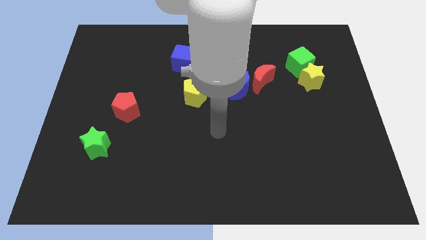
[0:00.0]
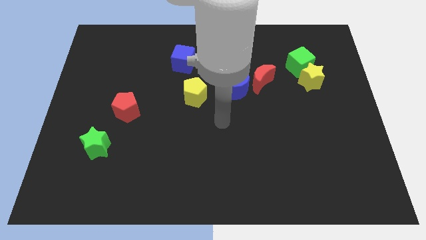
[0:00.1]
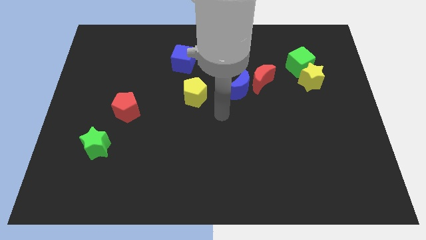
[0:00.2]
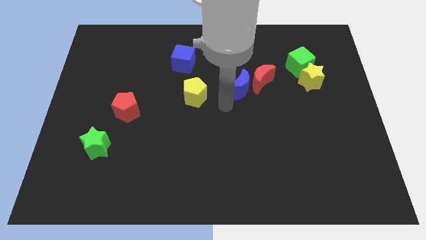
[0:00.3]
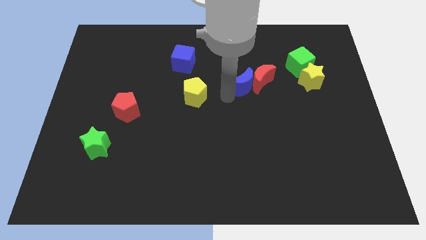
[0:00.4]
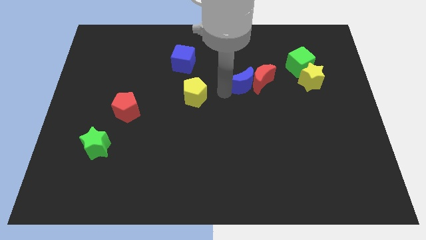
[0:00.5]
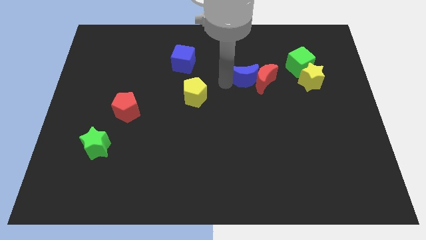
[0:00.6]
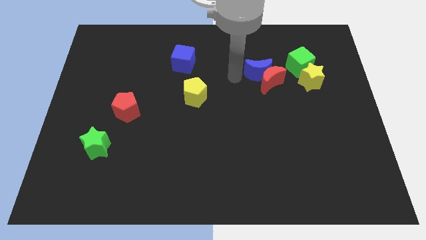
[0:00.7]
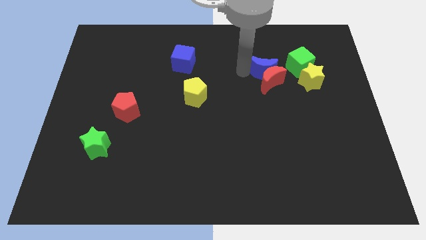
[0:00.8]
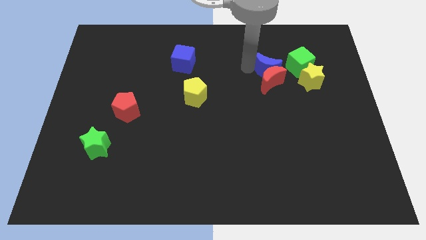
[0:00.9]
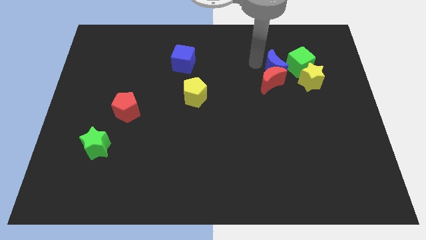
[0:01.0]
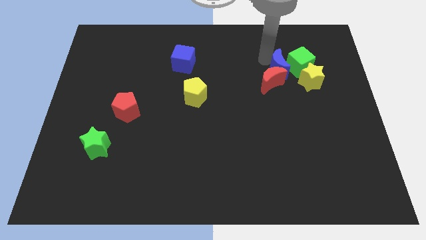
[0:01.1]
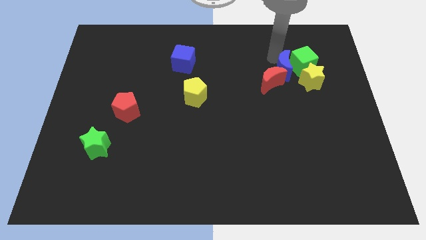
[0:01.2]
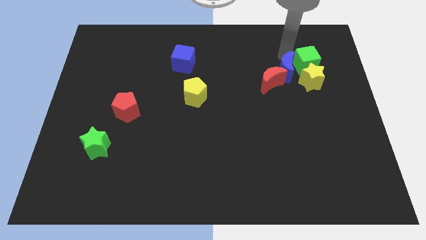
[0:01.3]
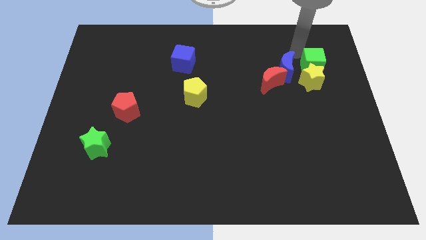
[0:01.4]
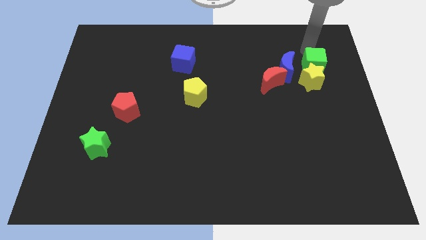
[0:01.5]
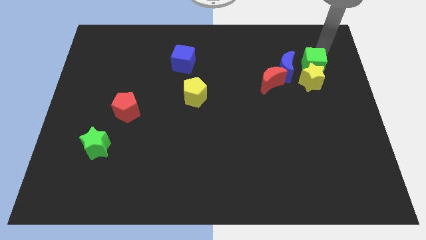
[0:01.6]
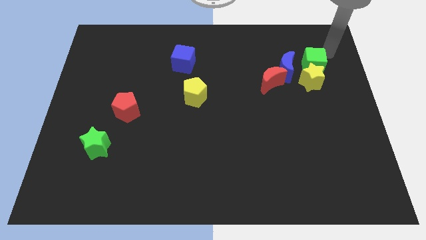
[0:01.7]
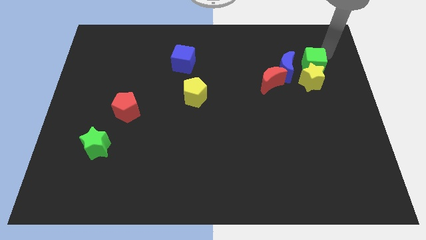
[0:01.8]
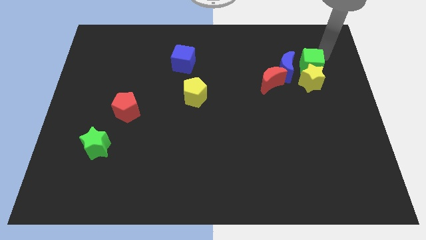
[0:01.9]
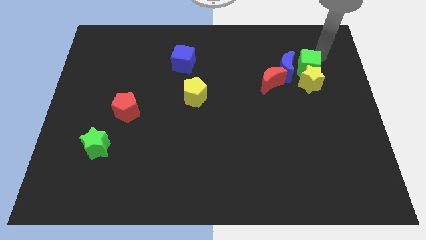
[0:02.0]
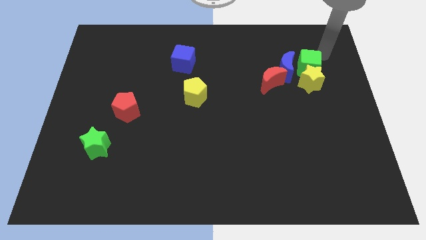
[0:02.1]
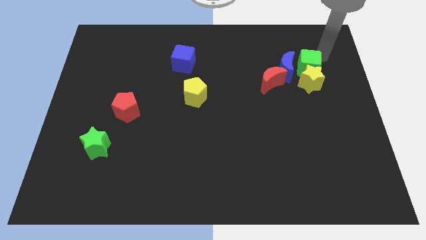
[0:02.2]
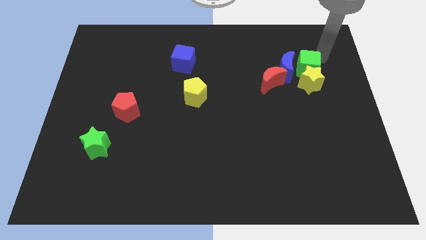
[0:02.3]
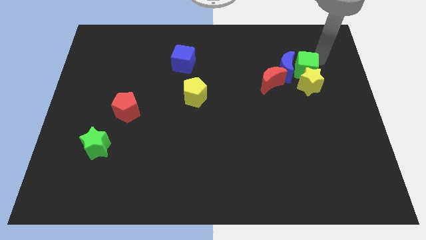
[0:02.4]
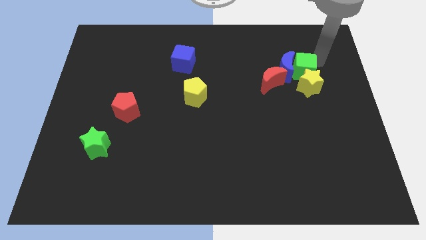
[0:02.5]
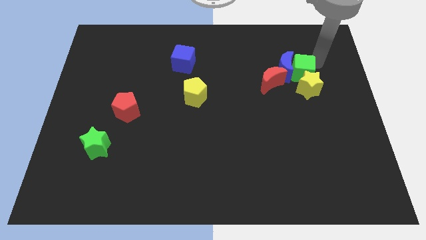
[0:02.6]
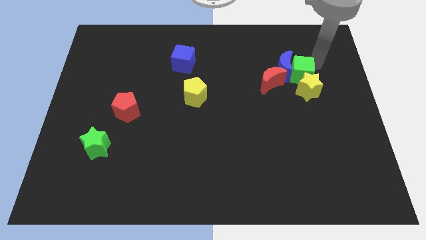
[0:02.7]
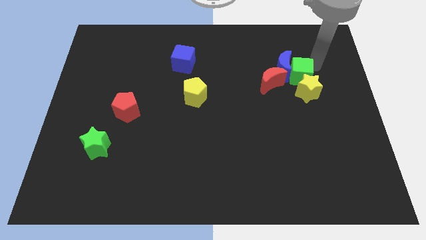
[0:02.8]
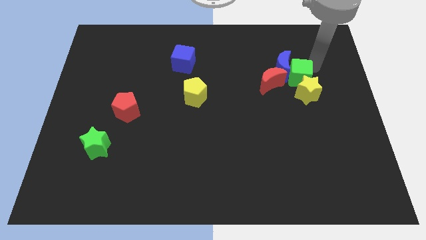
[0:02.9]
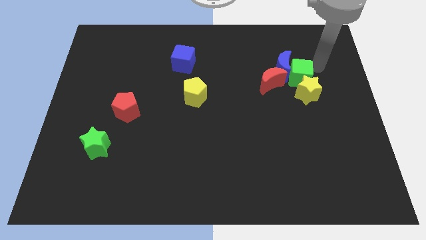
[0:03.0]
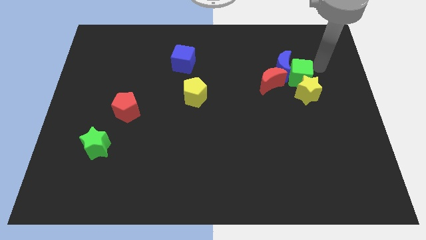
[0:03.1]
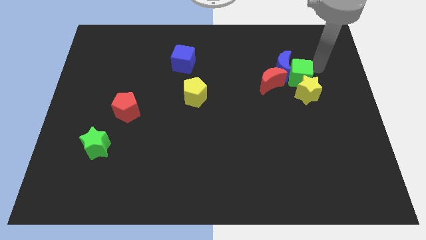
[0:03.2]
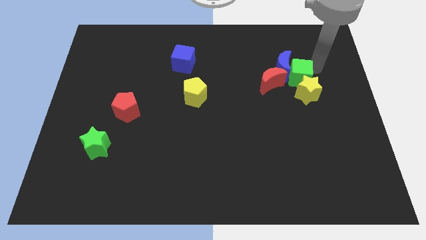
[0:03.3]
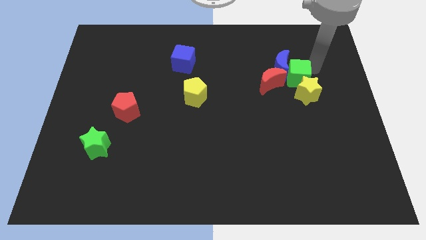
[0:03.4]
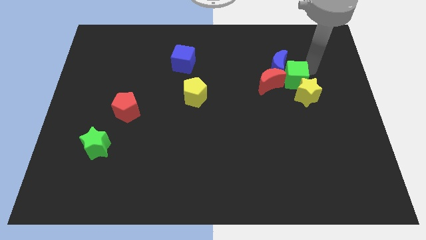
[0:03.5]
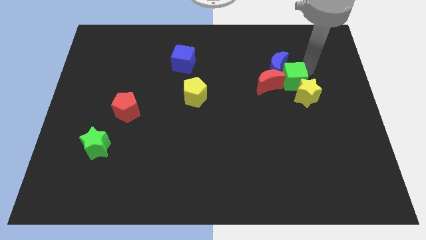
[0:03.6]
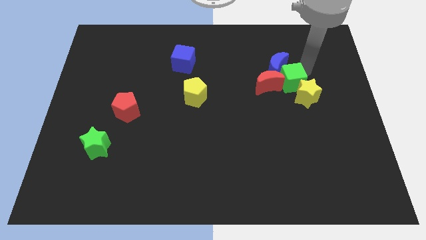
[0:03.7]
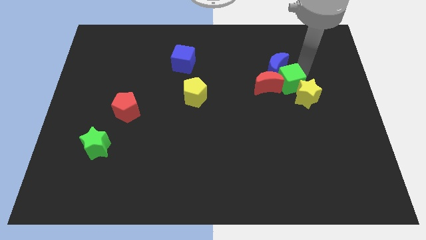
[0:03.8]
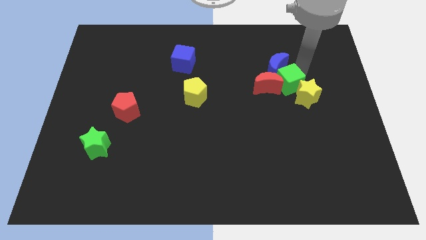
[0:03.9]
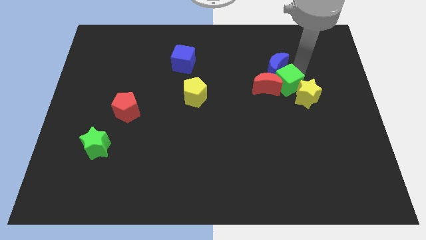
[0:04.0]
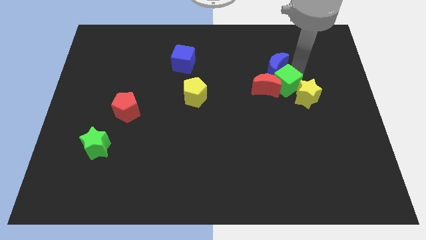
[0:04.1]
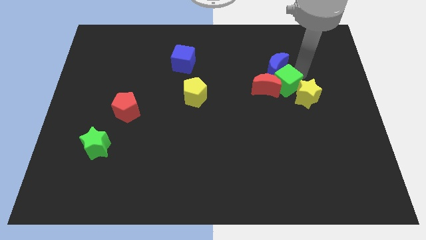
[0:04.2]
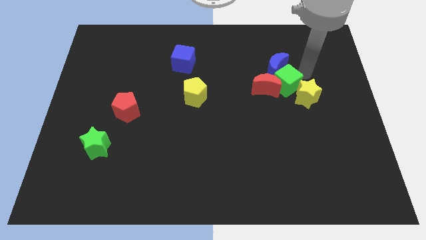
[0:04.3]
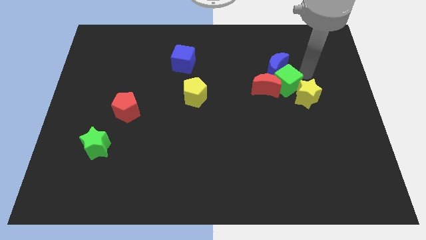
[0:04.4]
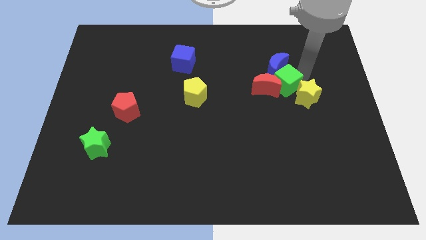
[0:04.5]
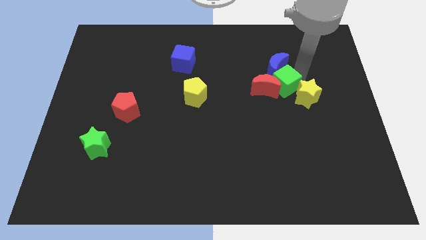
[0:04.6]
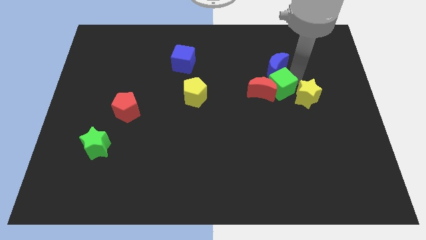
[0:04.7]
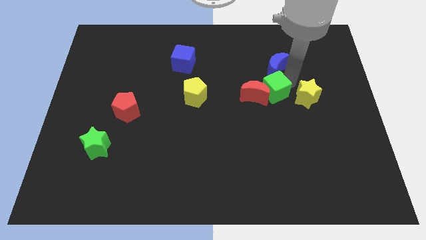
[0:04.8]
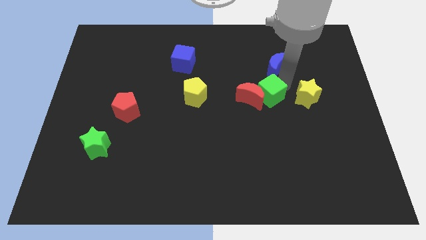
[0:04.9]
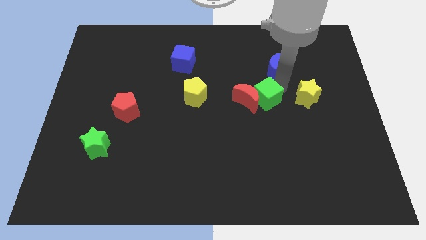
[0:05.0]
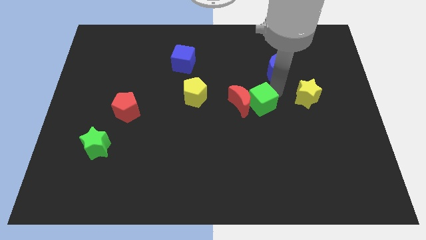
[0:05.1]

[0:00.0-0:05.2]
slide the green cube to the center

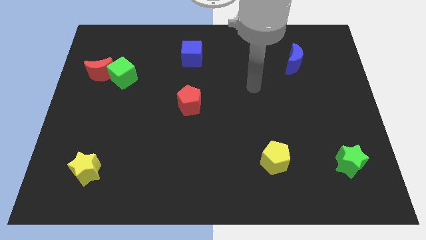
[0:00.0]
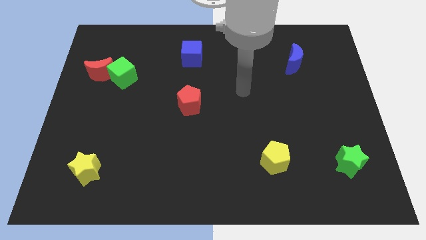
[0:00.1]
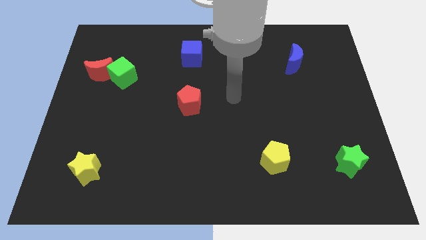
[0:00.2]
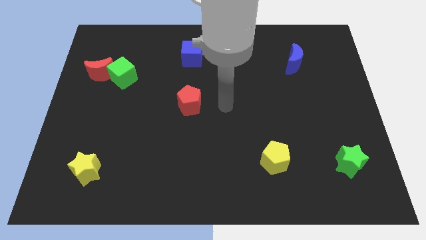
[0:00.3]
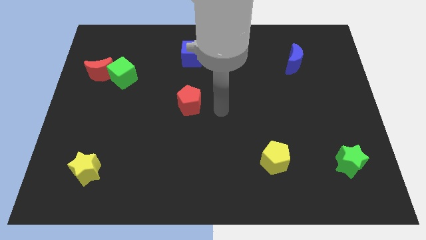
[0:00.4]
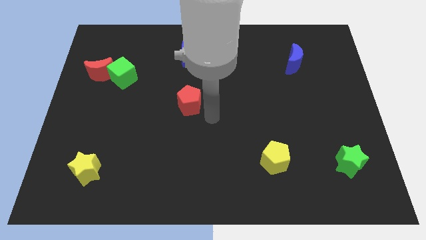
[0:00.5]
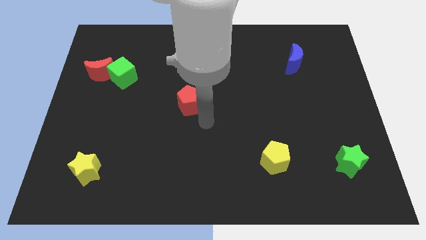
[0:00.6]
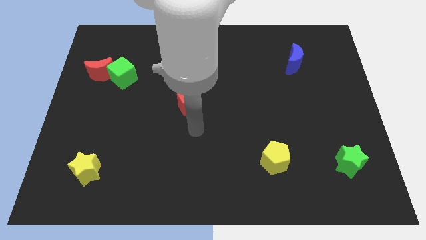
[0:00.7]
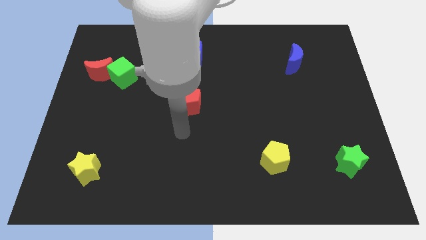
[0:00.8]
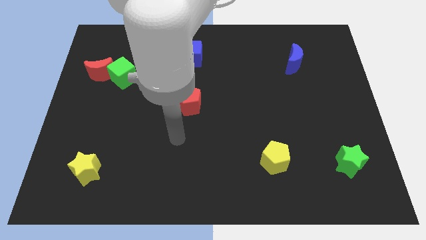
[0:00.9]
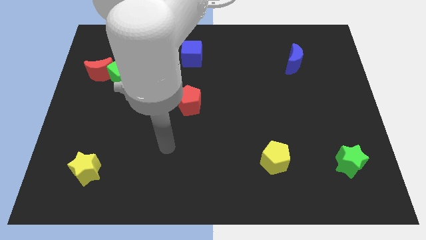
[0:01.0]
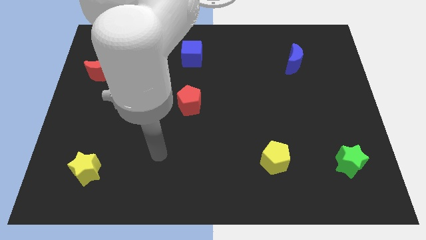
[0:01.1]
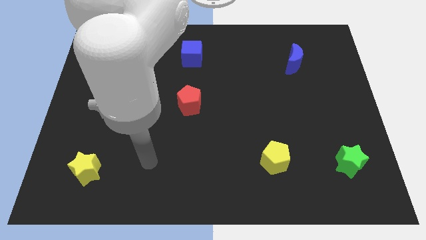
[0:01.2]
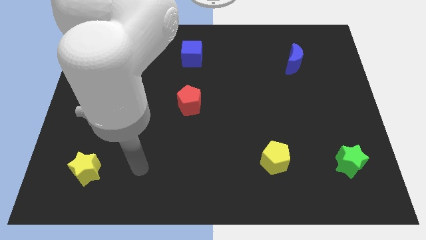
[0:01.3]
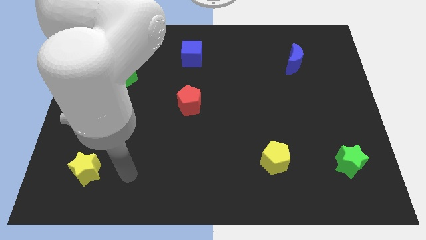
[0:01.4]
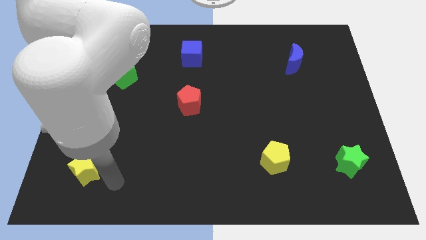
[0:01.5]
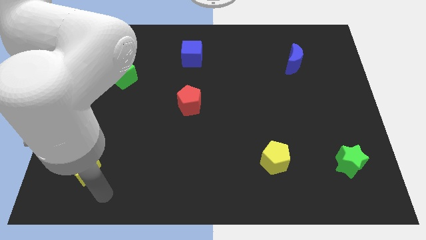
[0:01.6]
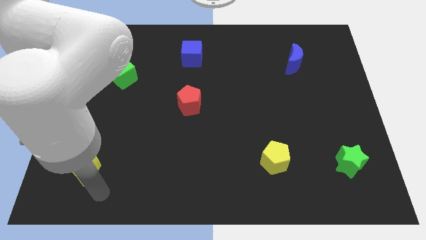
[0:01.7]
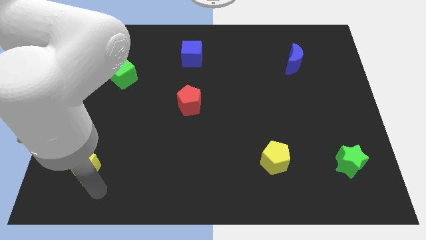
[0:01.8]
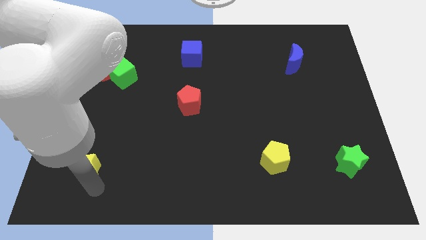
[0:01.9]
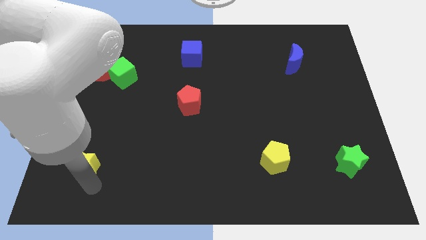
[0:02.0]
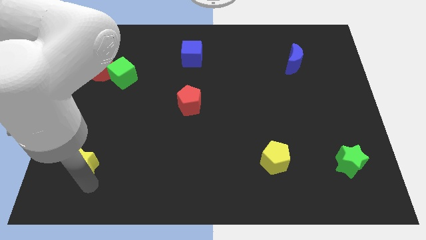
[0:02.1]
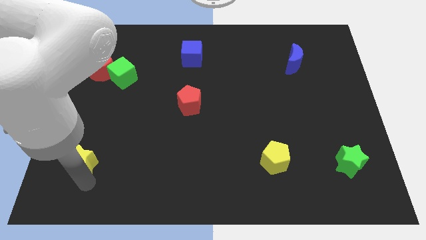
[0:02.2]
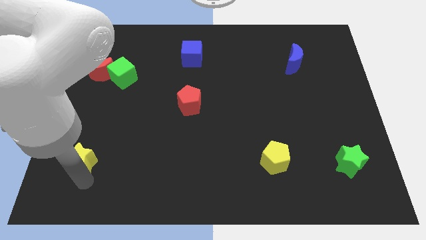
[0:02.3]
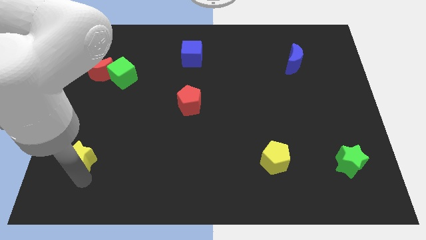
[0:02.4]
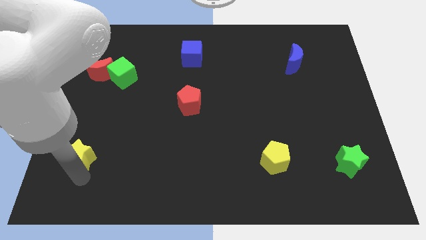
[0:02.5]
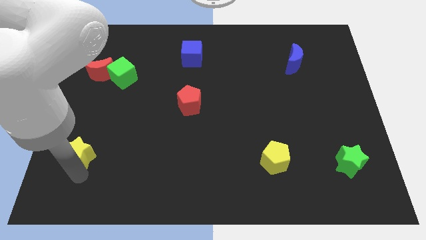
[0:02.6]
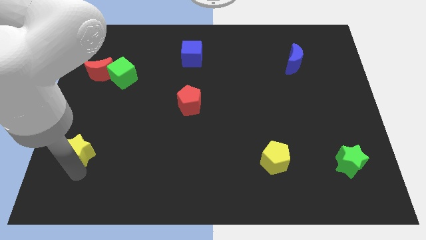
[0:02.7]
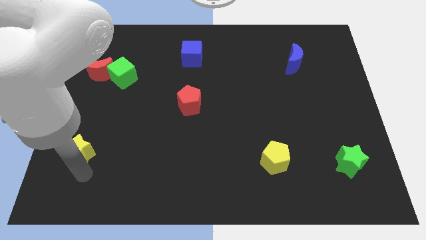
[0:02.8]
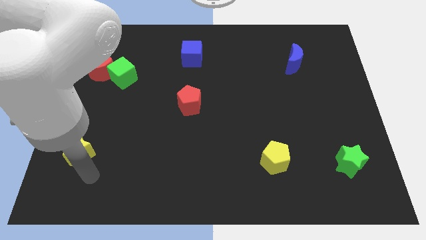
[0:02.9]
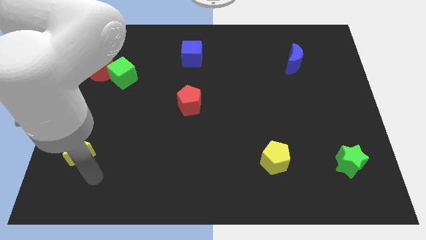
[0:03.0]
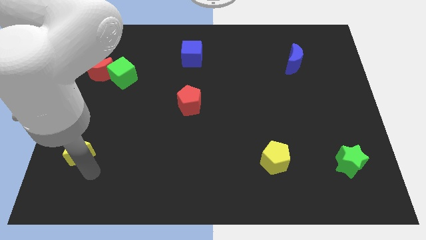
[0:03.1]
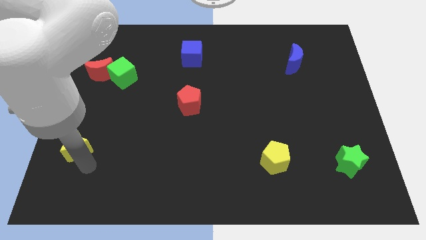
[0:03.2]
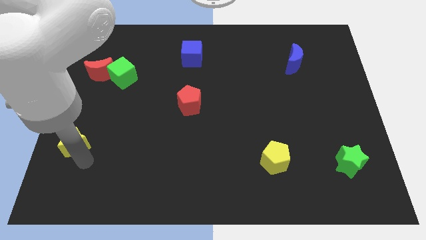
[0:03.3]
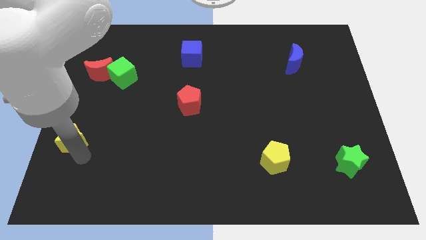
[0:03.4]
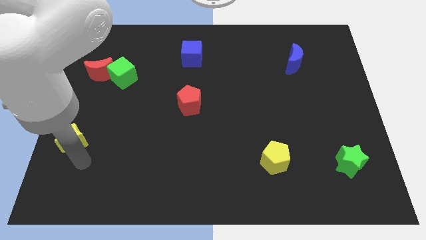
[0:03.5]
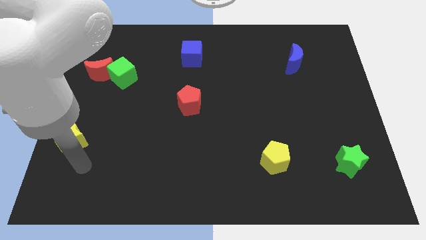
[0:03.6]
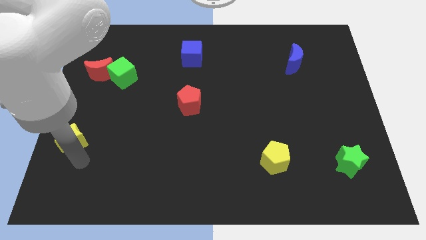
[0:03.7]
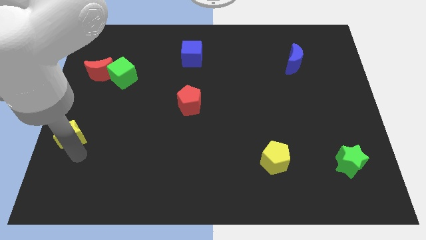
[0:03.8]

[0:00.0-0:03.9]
put the yellow star to the center left
